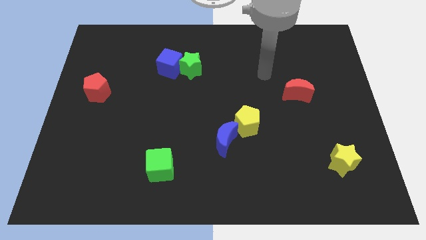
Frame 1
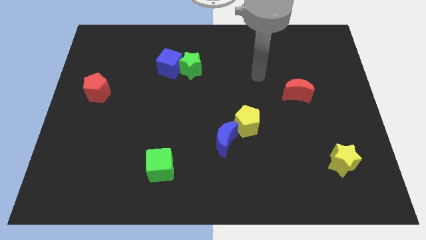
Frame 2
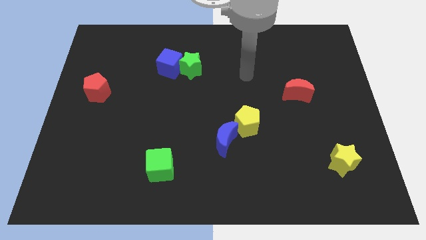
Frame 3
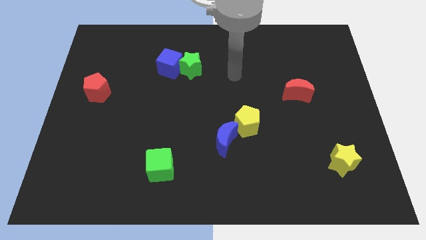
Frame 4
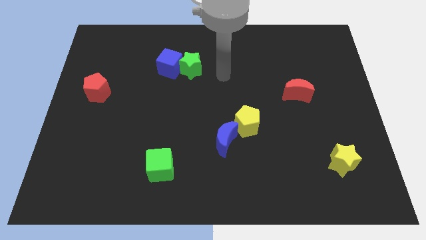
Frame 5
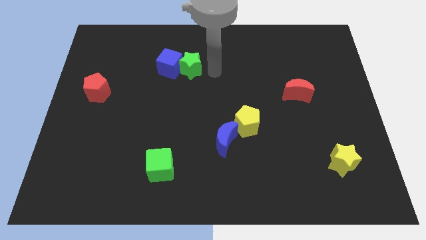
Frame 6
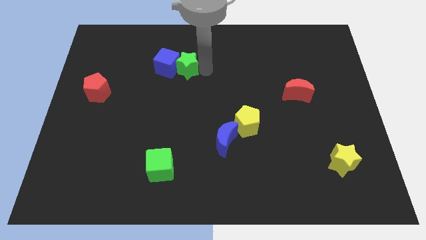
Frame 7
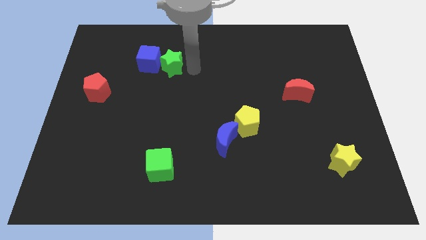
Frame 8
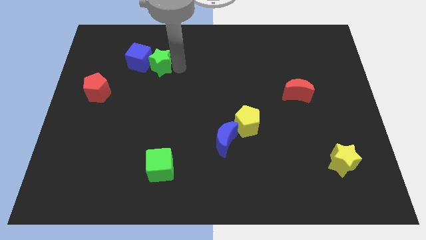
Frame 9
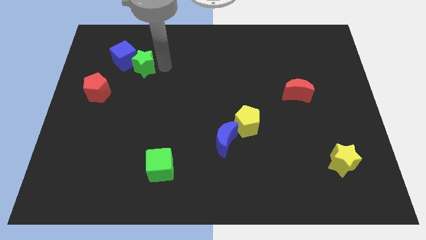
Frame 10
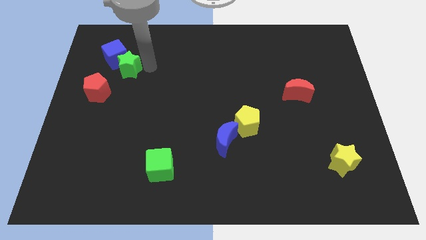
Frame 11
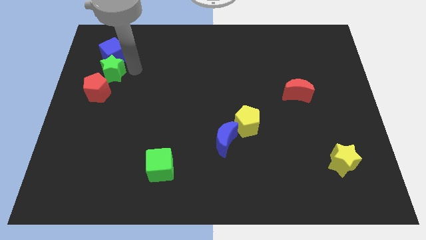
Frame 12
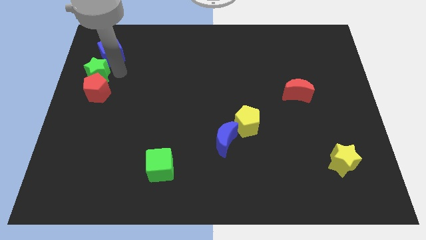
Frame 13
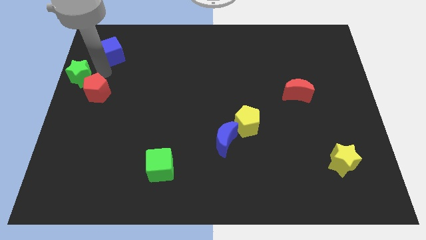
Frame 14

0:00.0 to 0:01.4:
pull the blue cube apart from the green star

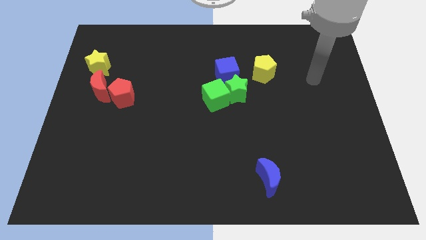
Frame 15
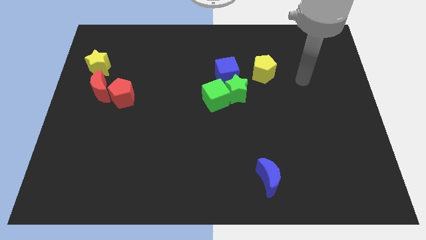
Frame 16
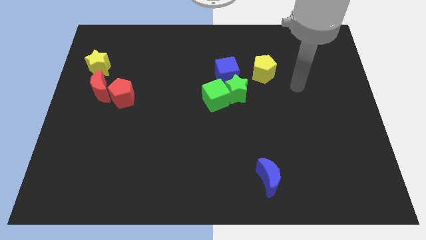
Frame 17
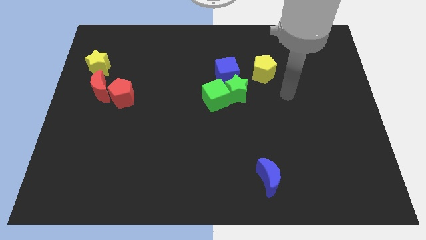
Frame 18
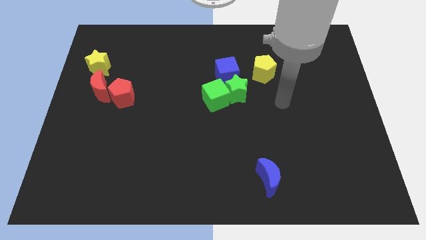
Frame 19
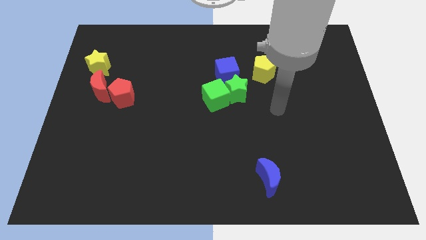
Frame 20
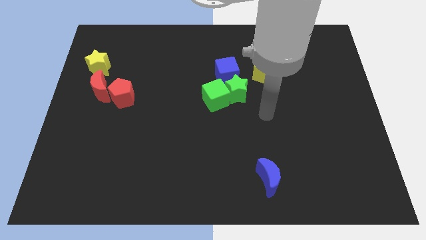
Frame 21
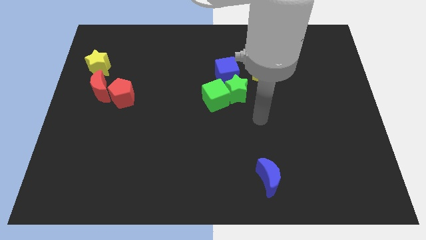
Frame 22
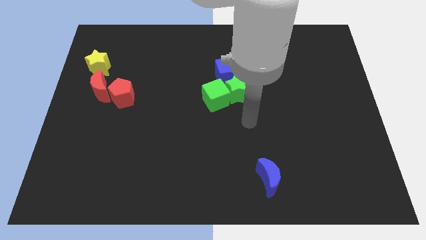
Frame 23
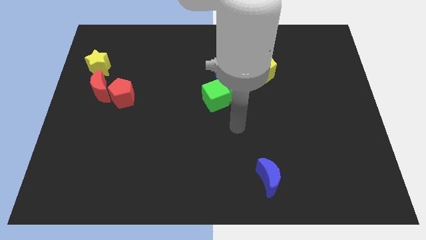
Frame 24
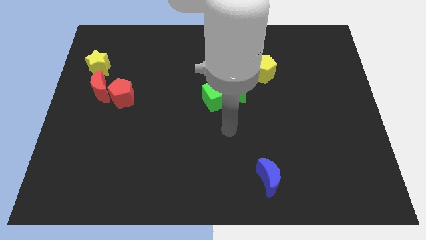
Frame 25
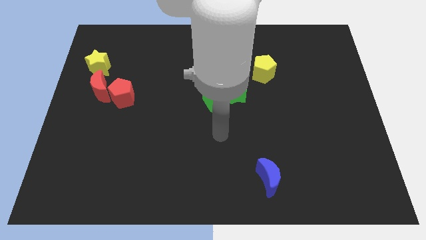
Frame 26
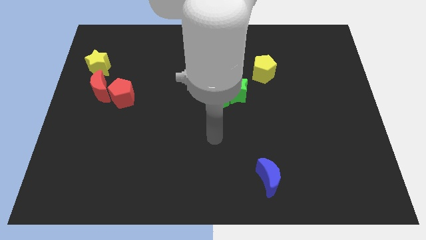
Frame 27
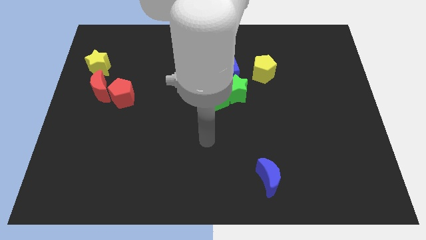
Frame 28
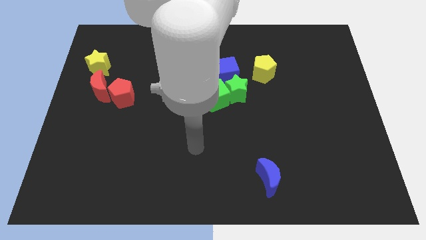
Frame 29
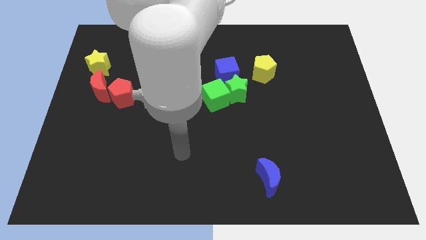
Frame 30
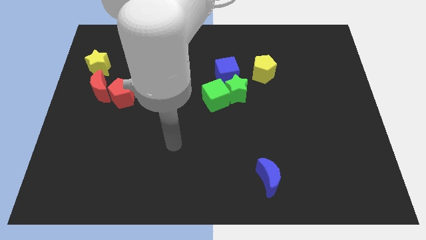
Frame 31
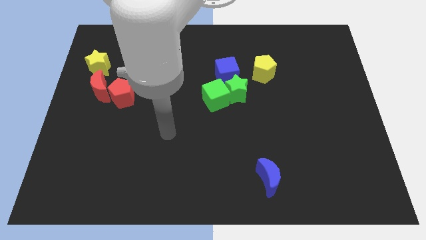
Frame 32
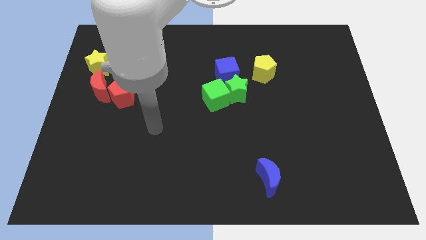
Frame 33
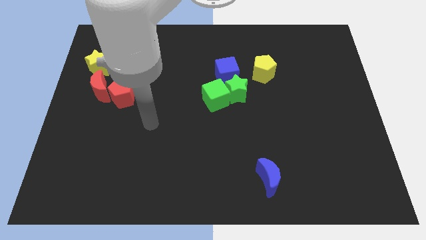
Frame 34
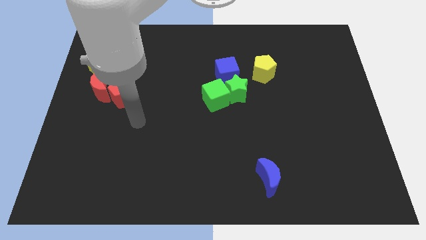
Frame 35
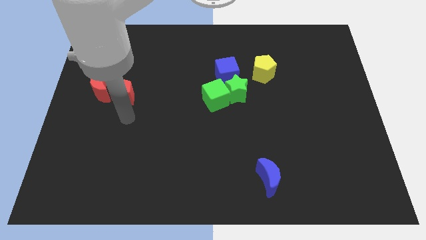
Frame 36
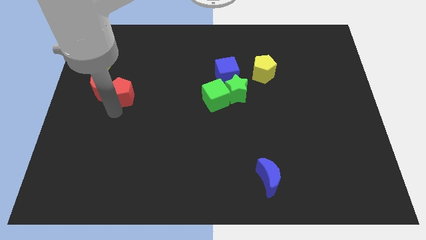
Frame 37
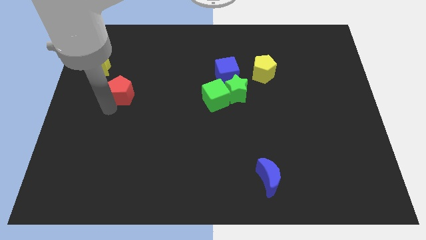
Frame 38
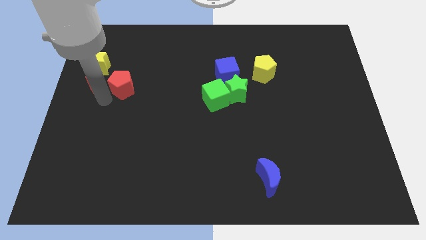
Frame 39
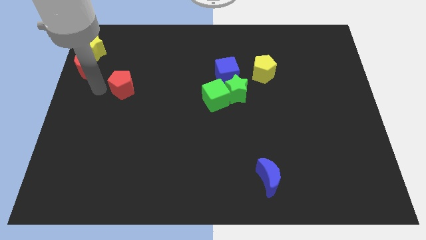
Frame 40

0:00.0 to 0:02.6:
move the red pentagon away from the red moon

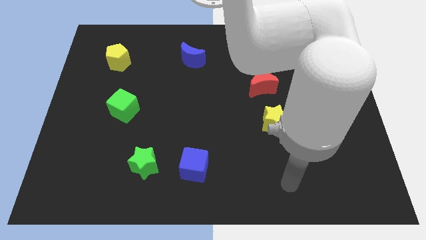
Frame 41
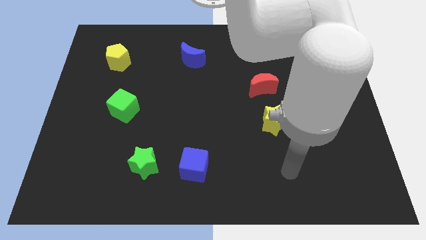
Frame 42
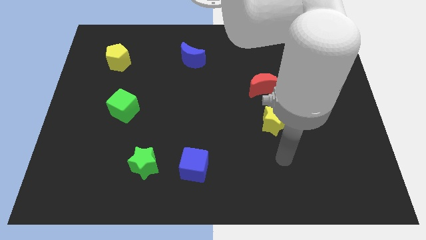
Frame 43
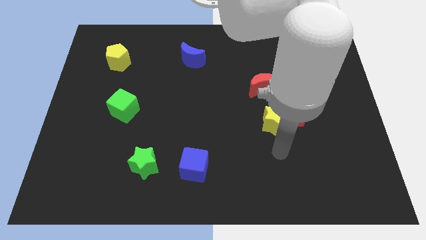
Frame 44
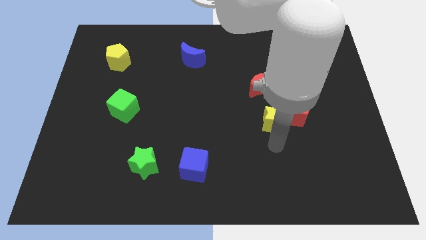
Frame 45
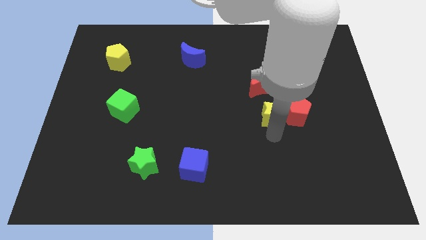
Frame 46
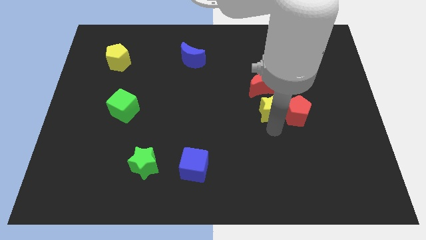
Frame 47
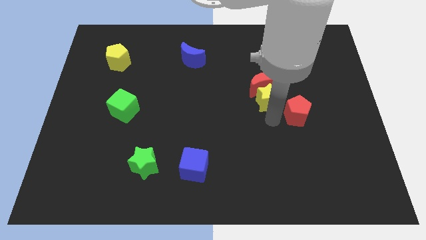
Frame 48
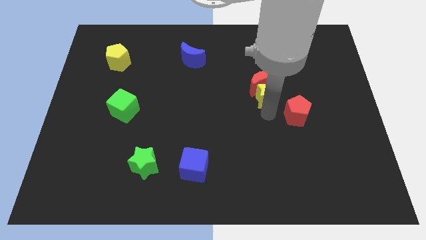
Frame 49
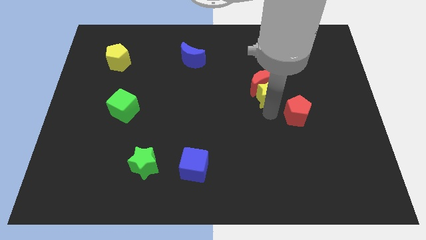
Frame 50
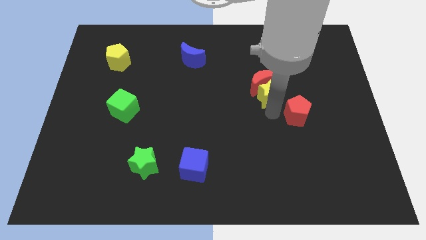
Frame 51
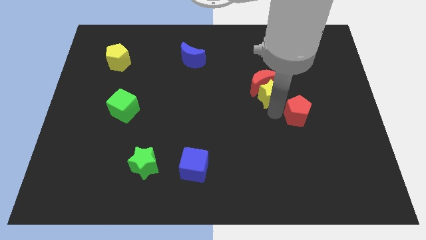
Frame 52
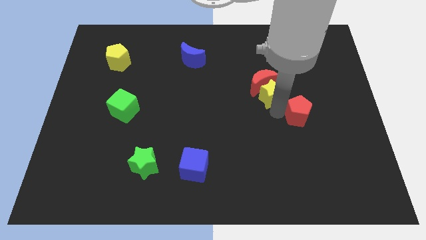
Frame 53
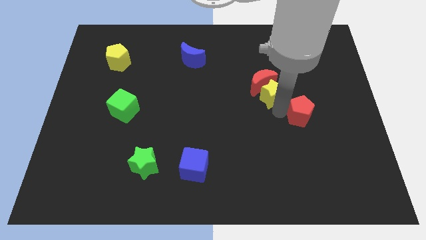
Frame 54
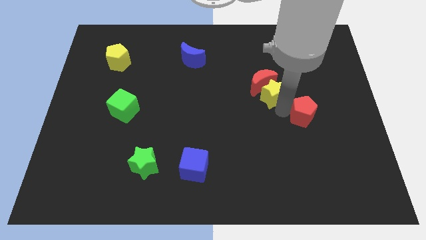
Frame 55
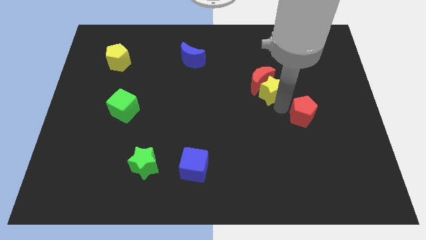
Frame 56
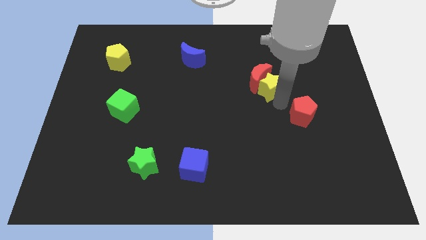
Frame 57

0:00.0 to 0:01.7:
separate the red pentagon from the yellow star

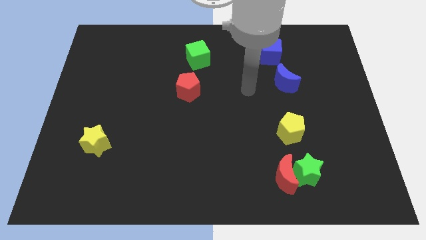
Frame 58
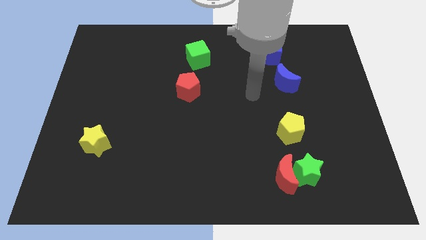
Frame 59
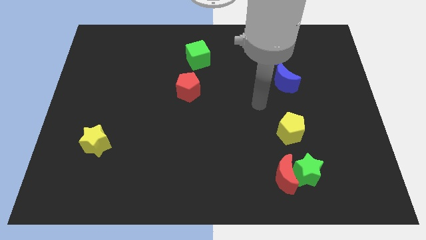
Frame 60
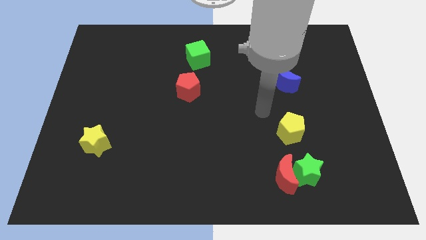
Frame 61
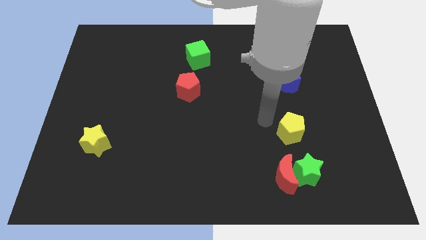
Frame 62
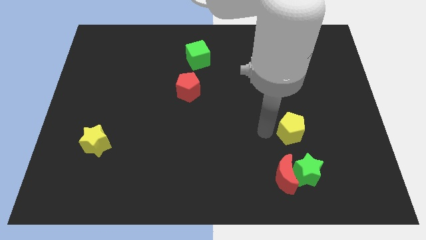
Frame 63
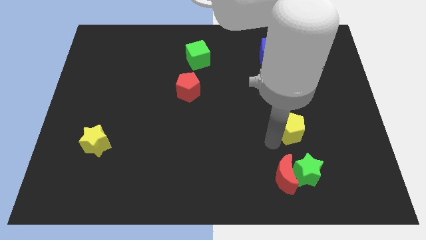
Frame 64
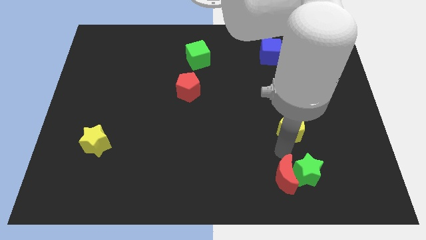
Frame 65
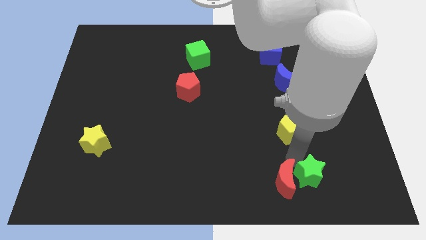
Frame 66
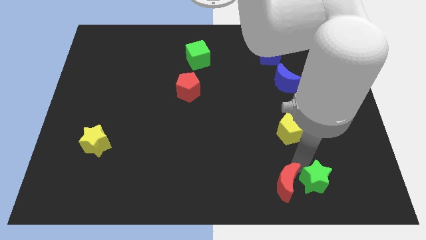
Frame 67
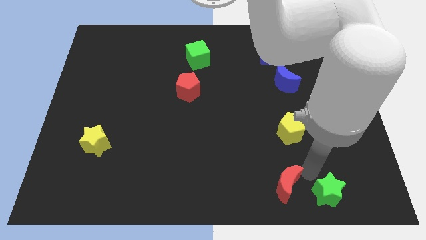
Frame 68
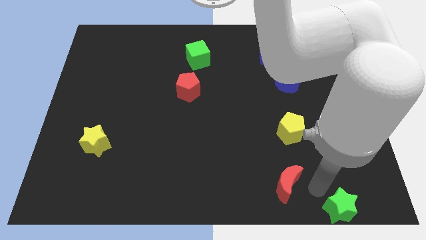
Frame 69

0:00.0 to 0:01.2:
separate the red moon from the green star

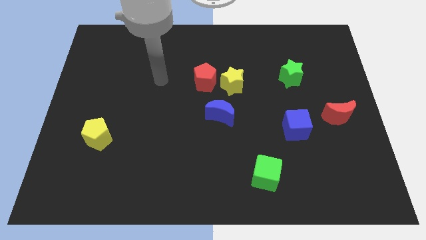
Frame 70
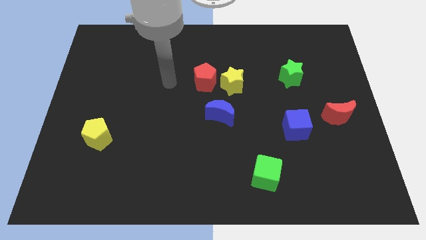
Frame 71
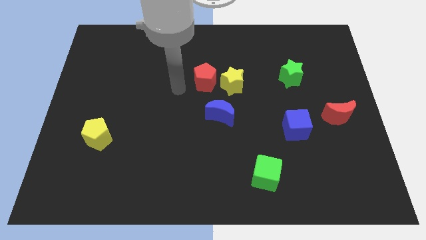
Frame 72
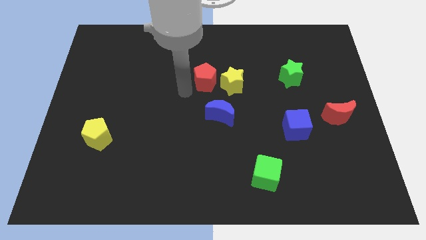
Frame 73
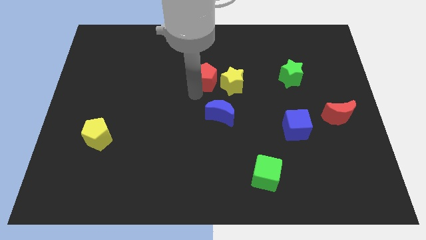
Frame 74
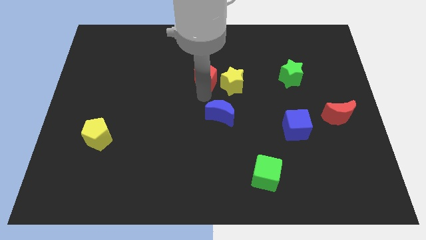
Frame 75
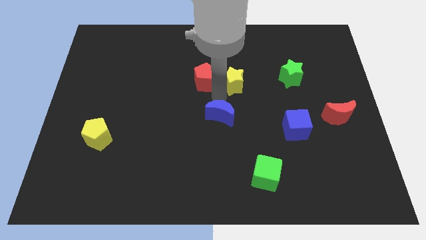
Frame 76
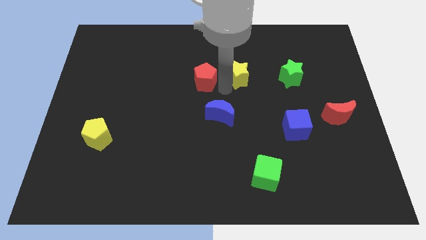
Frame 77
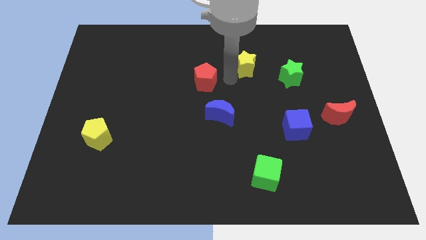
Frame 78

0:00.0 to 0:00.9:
pull the red pentagon apart from the yellow star

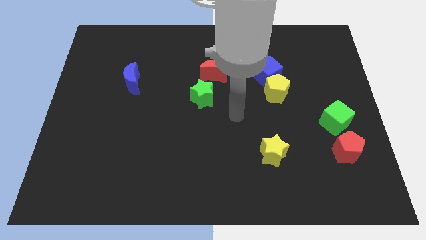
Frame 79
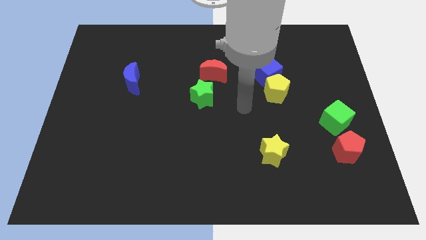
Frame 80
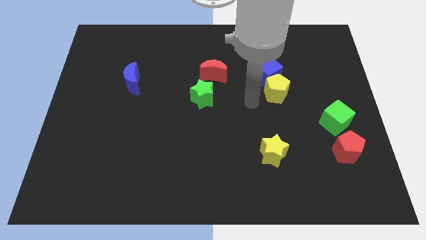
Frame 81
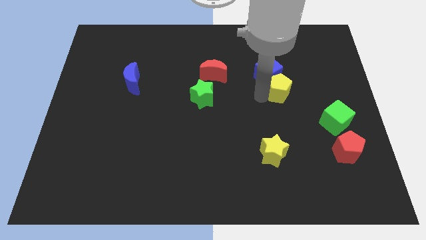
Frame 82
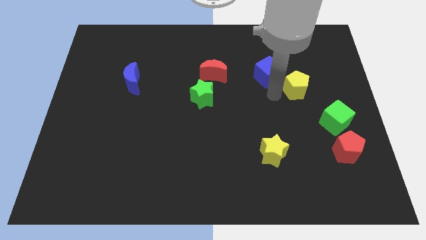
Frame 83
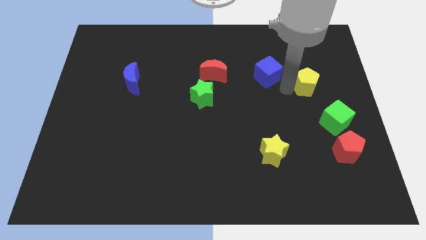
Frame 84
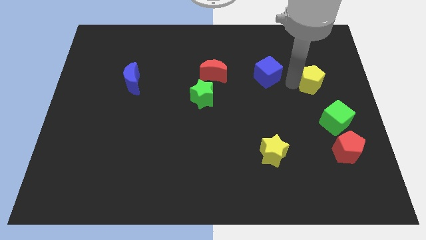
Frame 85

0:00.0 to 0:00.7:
pull the blue cube apart from the yellow pentagon

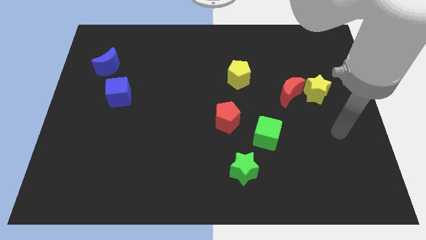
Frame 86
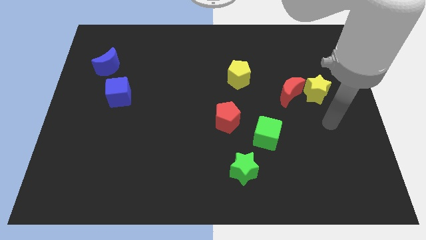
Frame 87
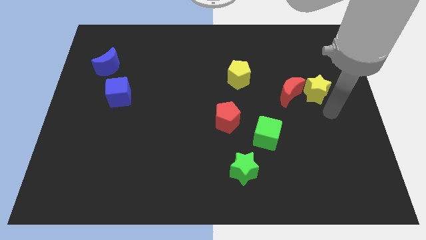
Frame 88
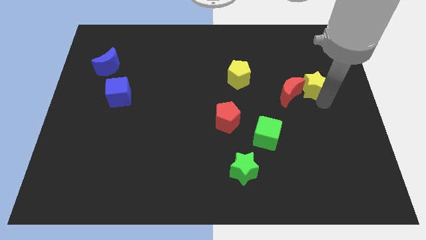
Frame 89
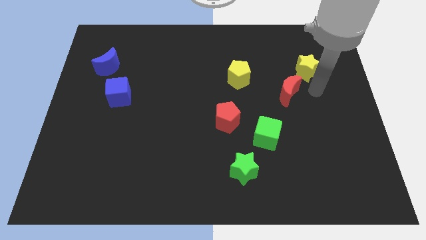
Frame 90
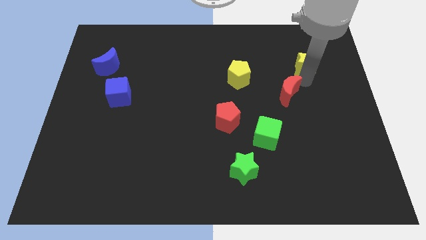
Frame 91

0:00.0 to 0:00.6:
separate the red moon from the yellow star
